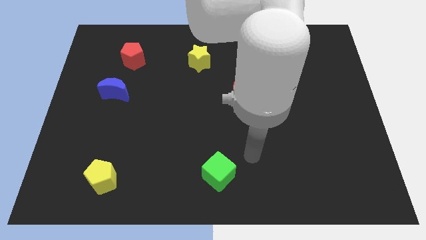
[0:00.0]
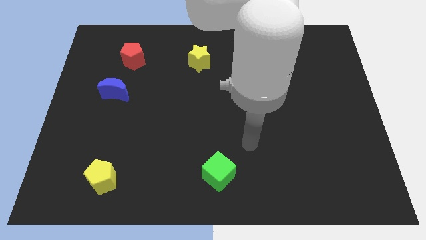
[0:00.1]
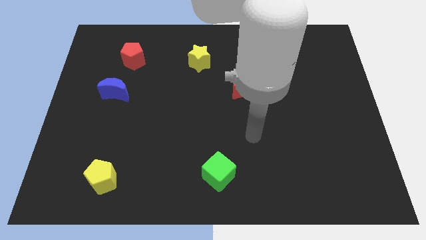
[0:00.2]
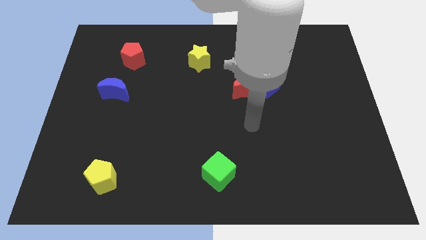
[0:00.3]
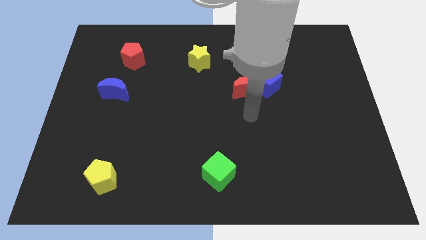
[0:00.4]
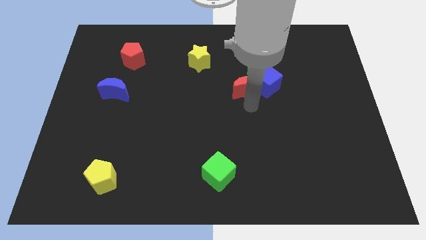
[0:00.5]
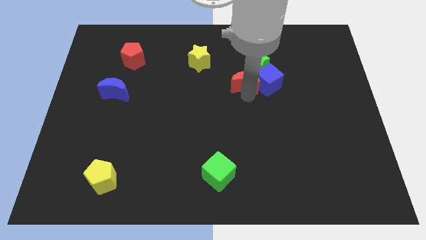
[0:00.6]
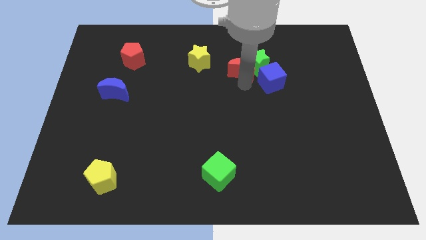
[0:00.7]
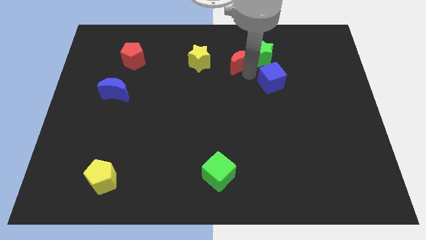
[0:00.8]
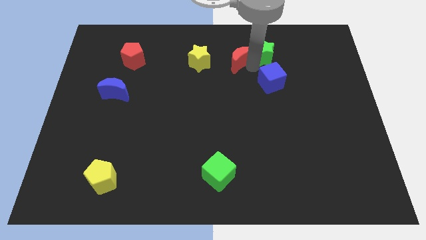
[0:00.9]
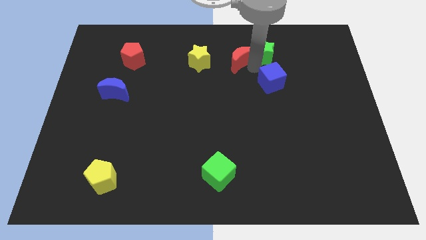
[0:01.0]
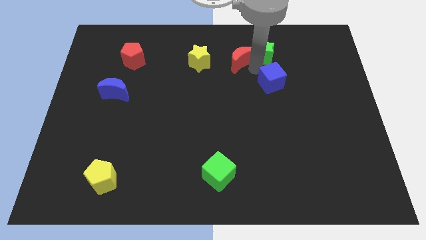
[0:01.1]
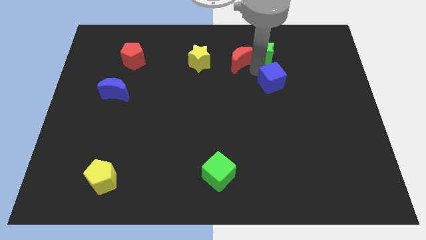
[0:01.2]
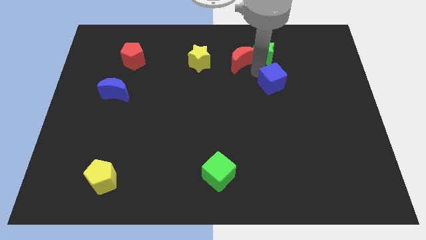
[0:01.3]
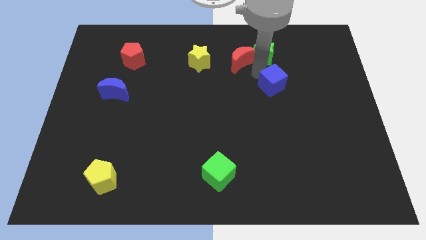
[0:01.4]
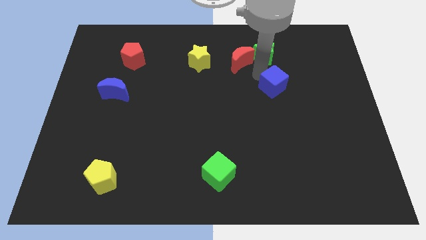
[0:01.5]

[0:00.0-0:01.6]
separate the blue cube from the red moon and green star

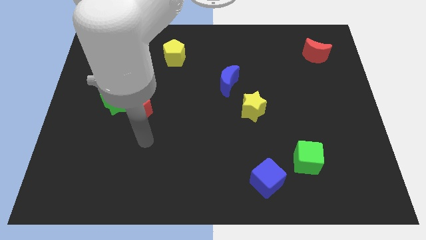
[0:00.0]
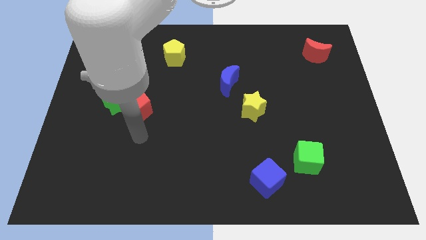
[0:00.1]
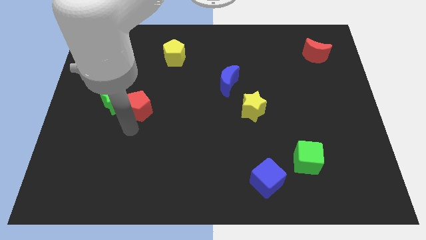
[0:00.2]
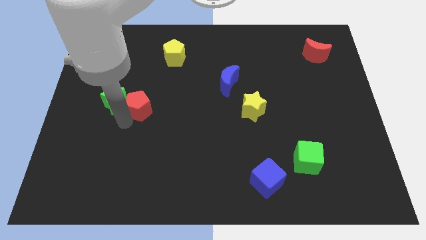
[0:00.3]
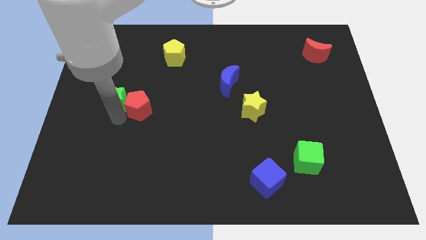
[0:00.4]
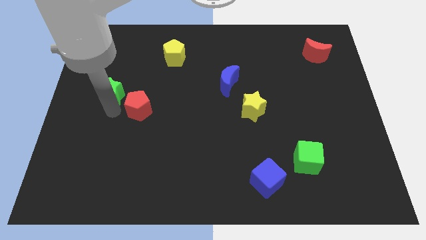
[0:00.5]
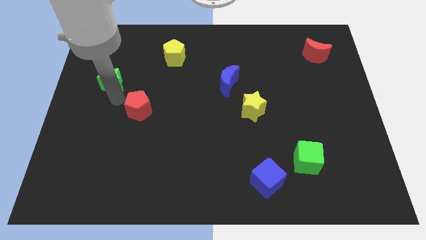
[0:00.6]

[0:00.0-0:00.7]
pull the red pentagon apart from the green star

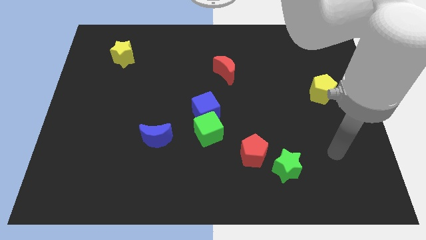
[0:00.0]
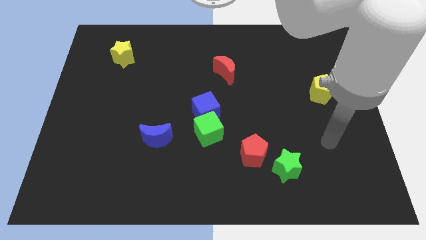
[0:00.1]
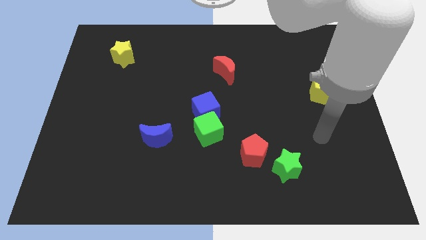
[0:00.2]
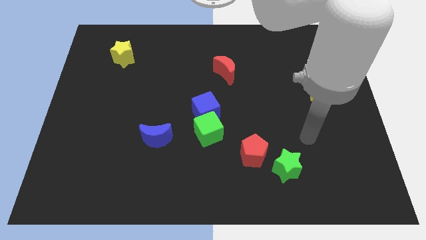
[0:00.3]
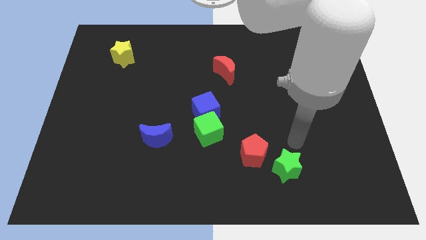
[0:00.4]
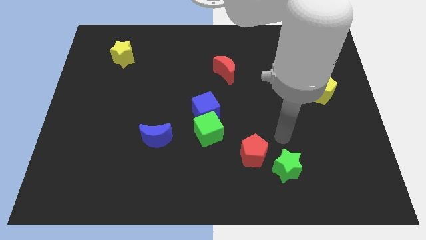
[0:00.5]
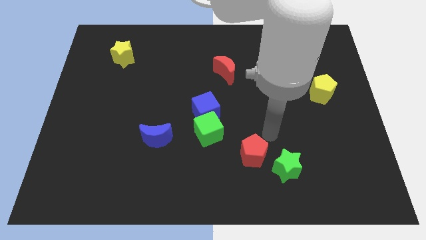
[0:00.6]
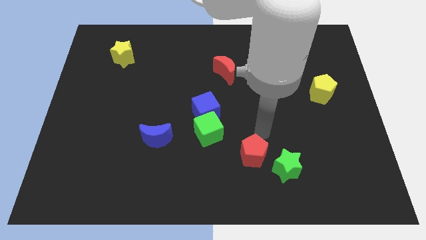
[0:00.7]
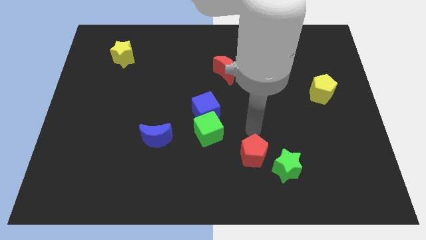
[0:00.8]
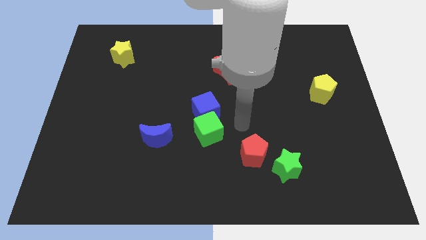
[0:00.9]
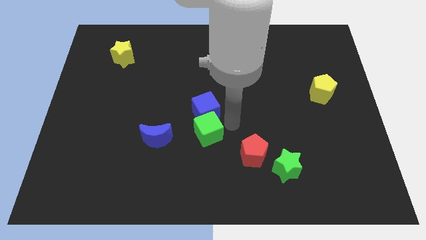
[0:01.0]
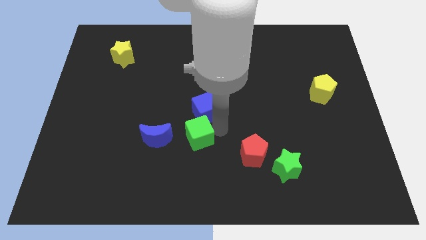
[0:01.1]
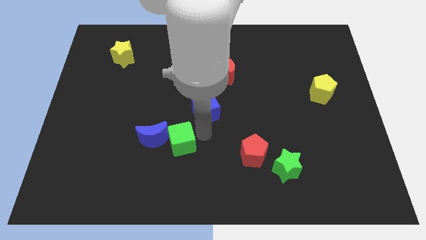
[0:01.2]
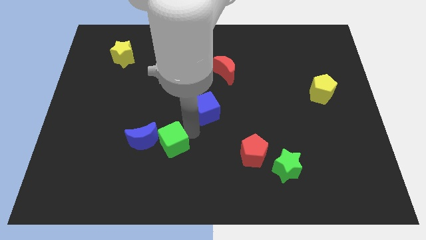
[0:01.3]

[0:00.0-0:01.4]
separate the blue cube from the green cube

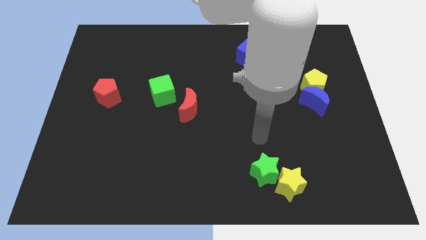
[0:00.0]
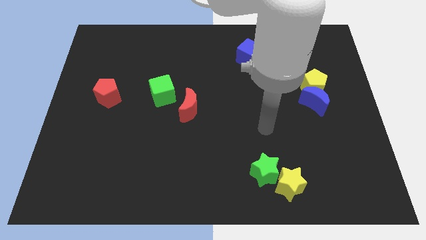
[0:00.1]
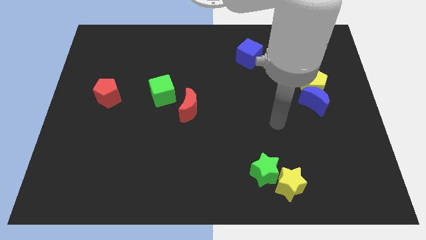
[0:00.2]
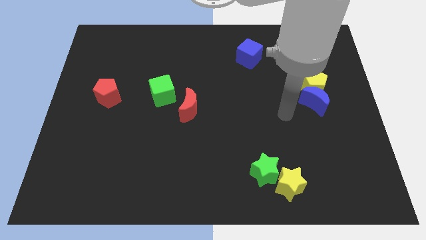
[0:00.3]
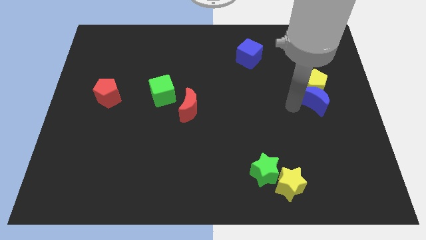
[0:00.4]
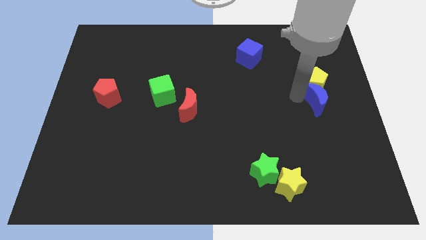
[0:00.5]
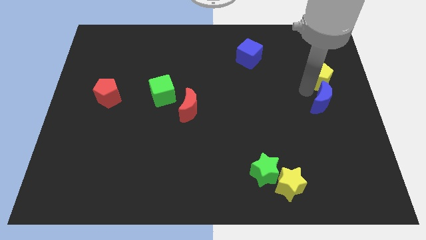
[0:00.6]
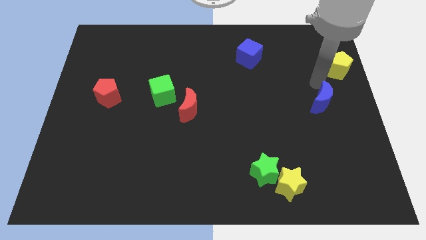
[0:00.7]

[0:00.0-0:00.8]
move the blue moon away from the yellow pentagon

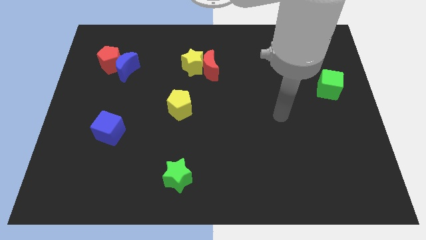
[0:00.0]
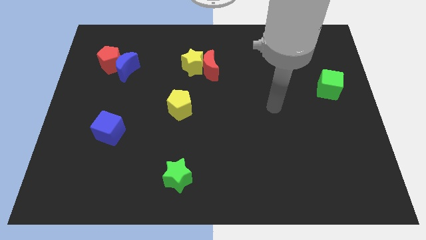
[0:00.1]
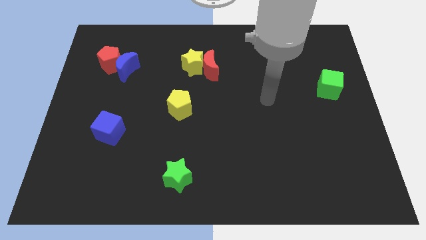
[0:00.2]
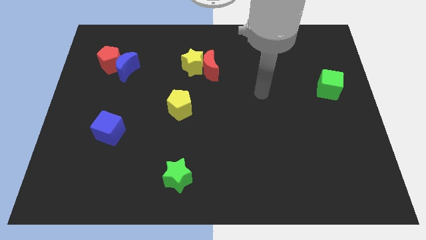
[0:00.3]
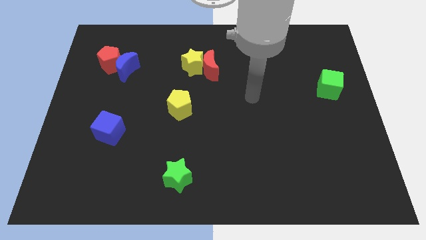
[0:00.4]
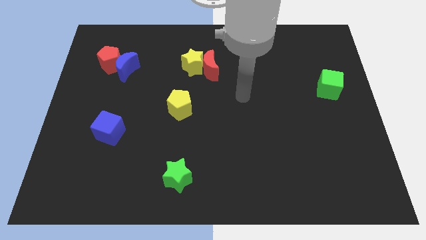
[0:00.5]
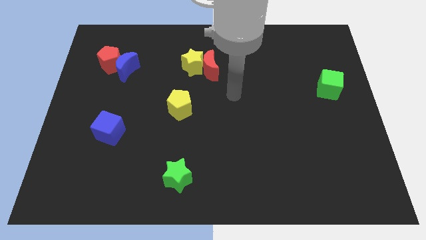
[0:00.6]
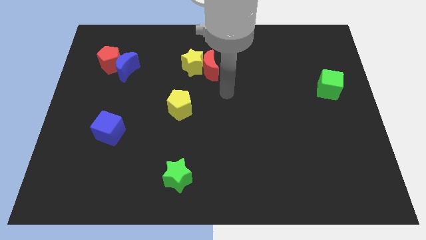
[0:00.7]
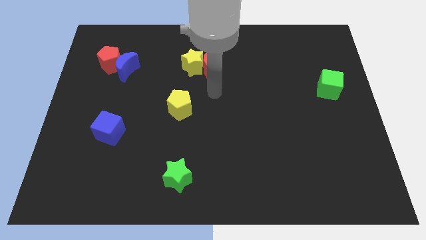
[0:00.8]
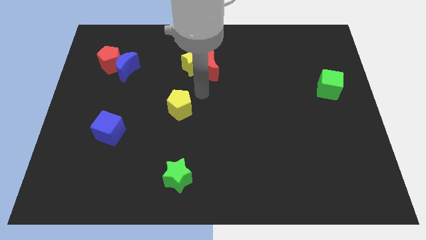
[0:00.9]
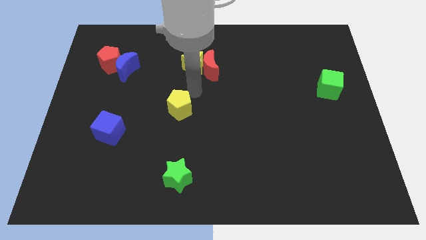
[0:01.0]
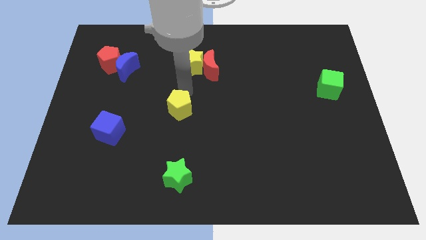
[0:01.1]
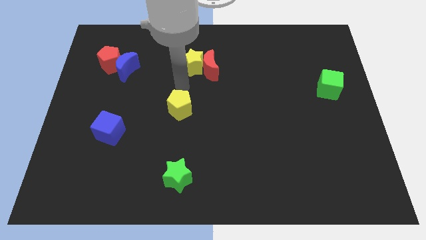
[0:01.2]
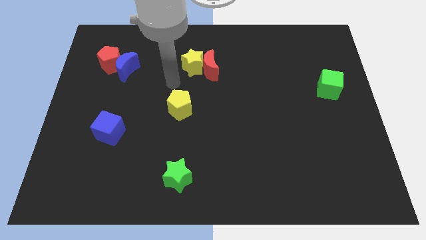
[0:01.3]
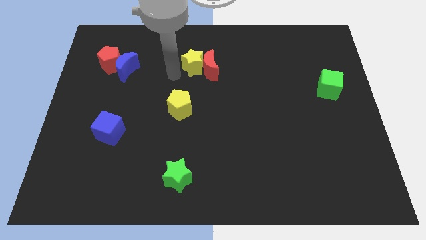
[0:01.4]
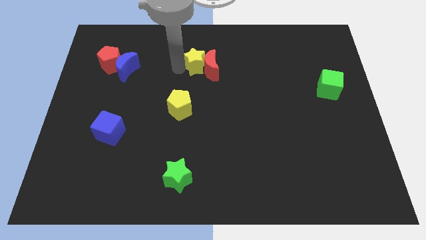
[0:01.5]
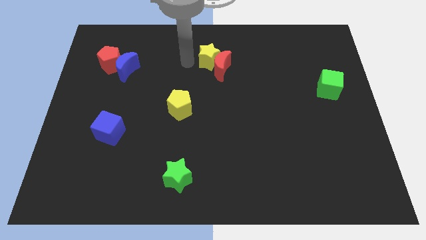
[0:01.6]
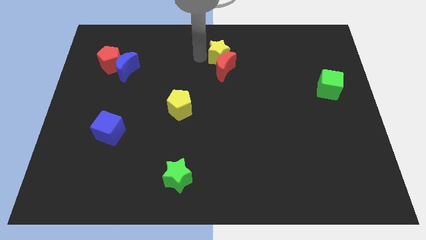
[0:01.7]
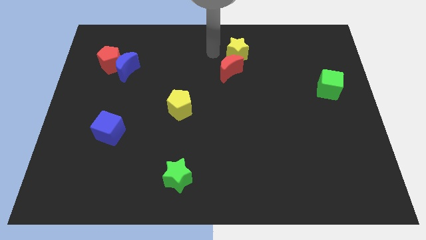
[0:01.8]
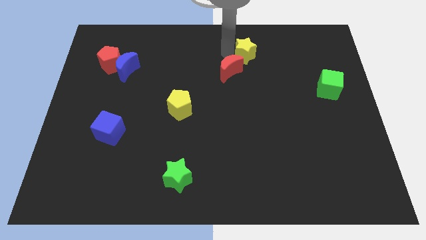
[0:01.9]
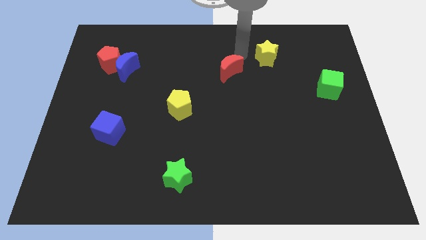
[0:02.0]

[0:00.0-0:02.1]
separate the red moon from the yellow star

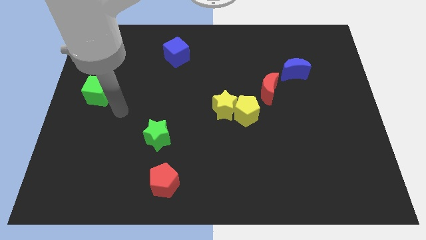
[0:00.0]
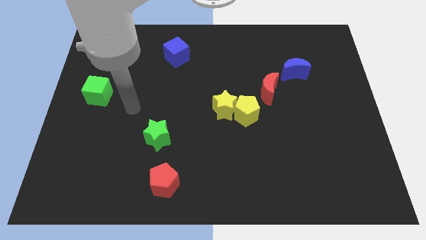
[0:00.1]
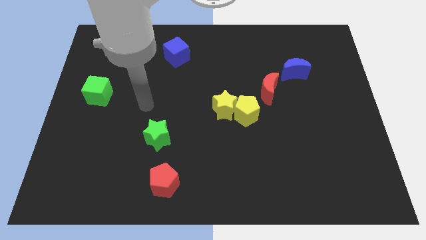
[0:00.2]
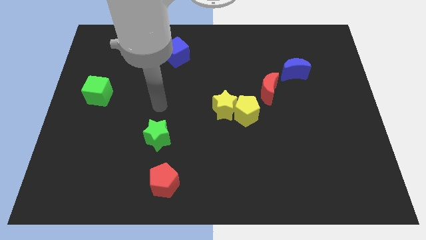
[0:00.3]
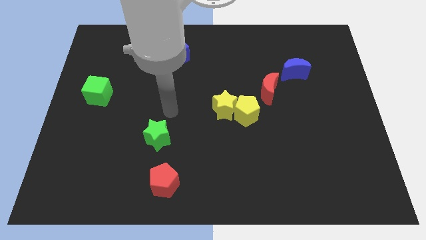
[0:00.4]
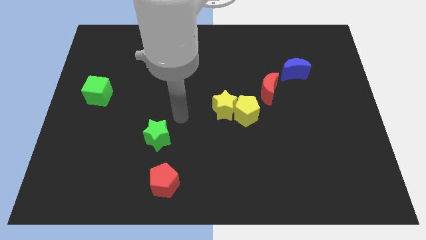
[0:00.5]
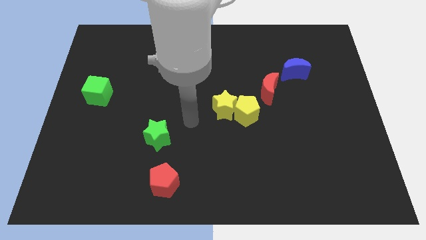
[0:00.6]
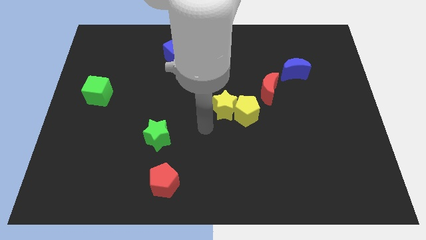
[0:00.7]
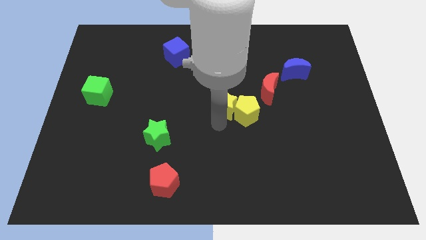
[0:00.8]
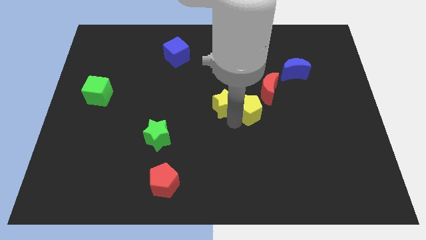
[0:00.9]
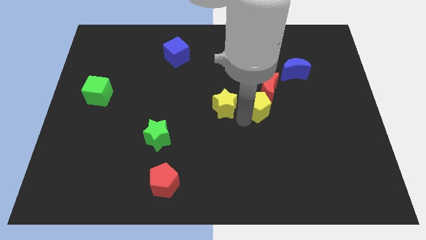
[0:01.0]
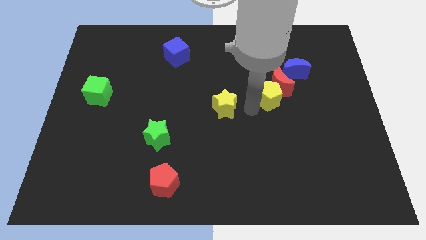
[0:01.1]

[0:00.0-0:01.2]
separate the yellow star from the yellow pentagon

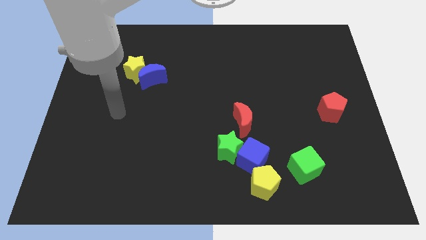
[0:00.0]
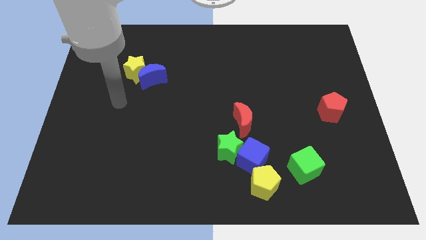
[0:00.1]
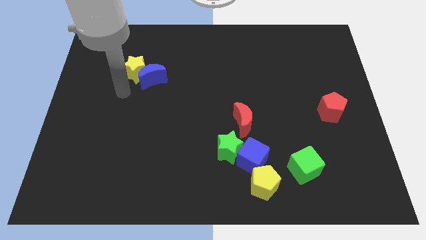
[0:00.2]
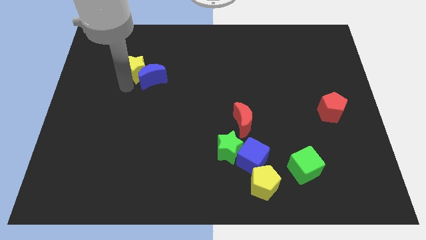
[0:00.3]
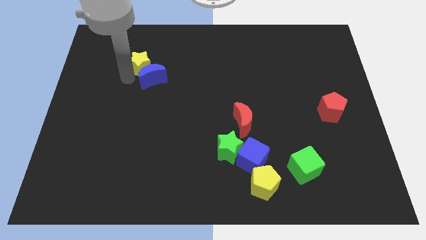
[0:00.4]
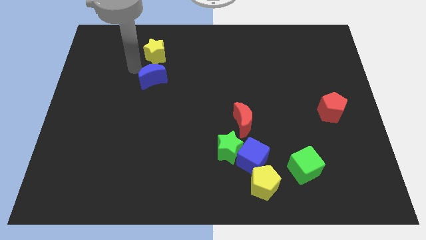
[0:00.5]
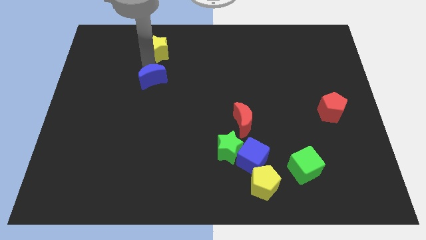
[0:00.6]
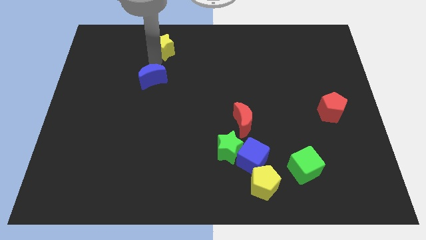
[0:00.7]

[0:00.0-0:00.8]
separate the blue moon from the yellow star

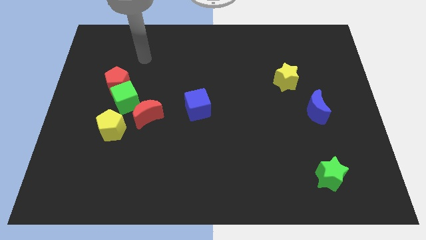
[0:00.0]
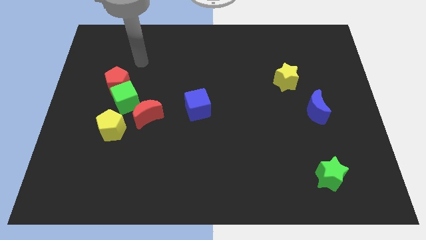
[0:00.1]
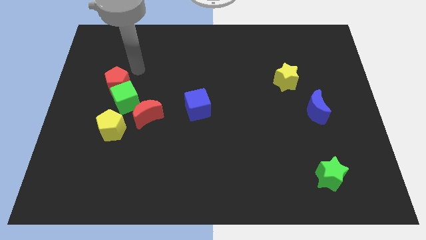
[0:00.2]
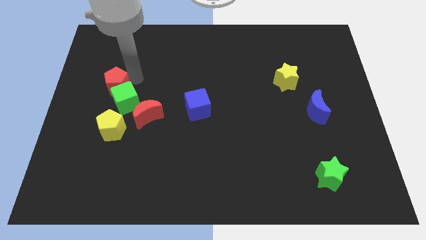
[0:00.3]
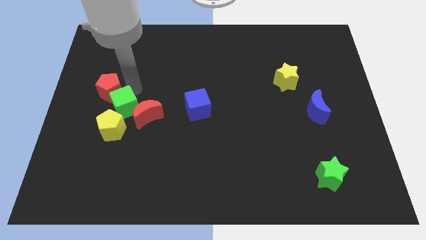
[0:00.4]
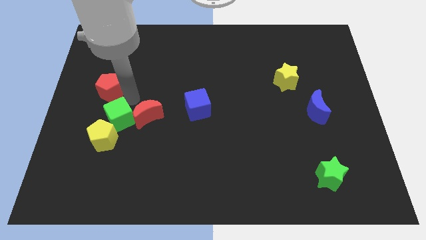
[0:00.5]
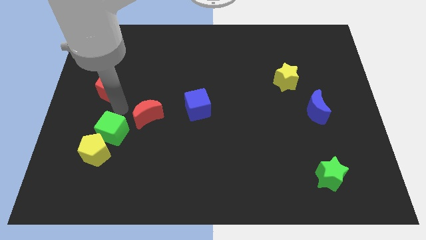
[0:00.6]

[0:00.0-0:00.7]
move the red pentagon away from the green cube
